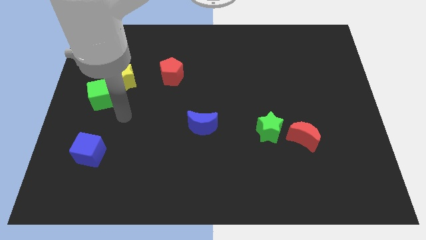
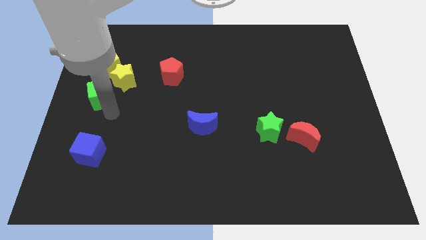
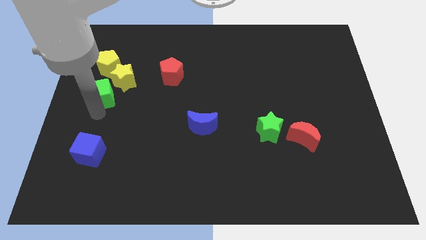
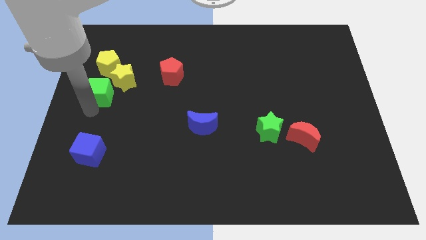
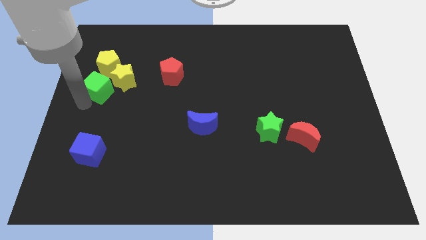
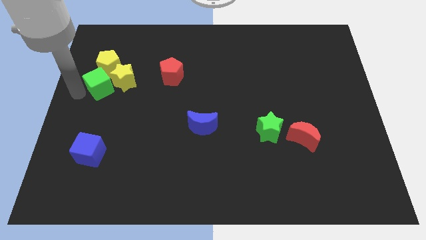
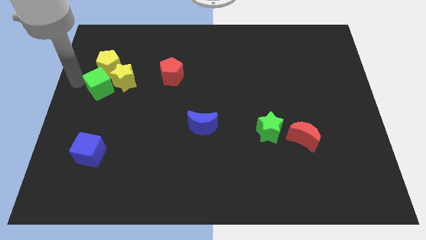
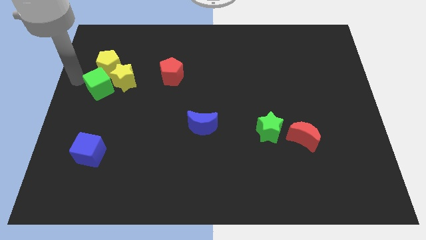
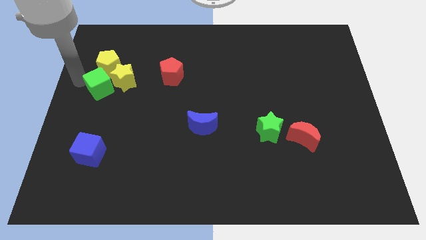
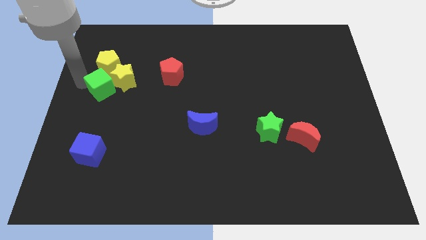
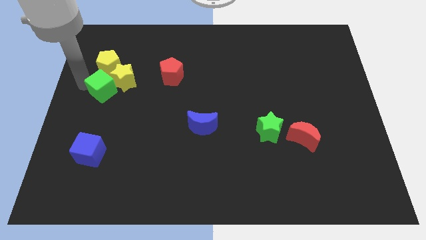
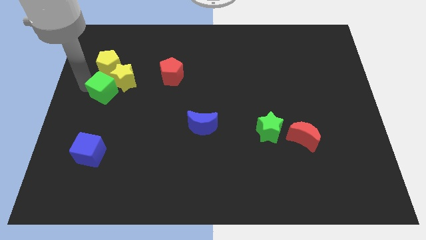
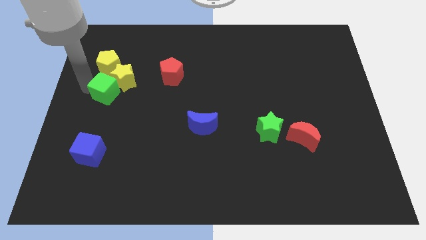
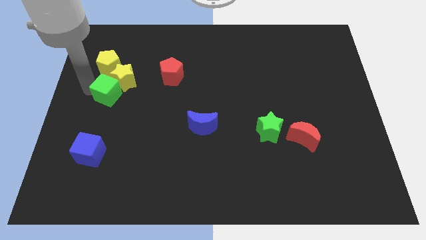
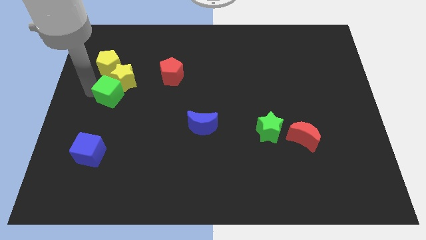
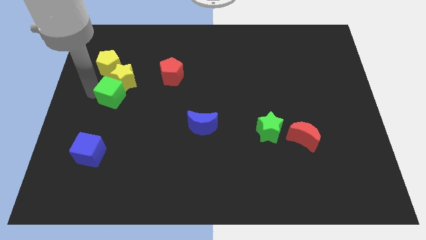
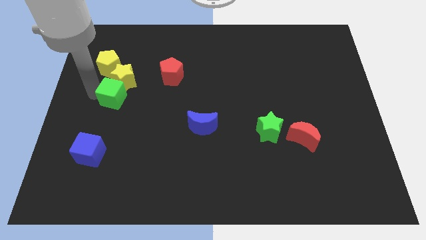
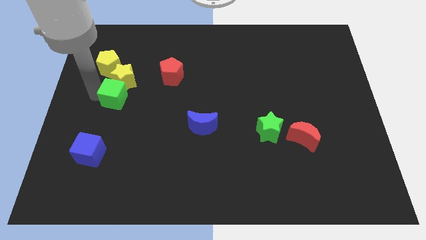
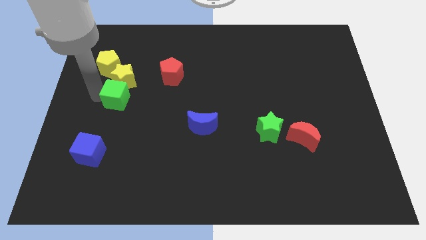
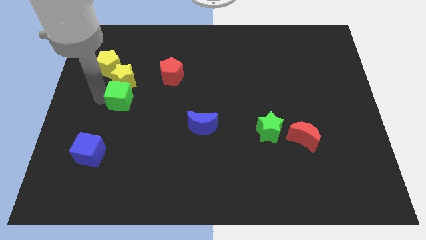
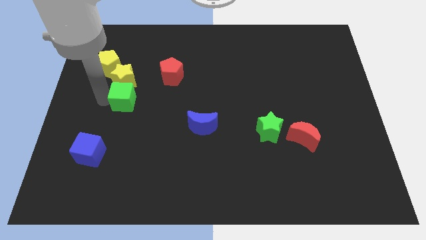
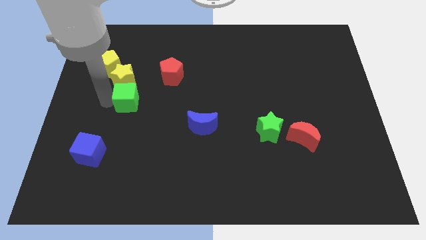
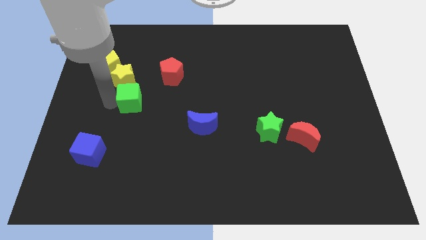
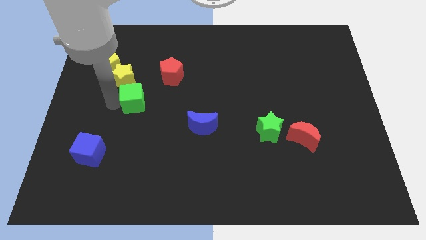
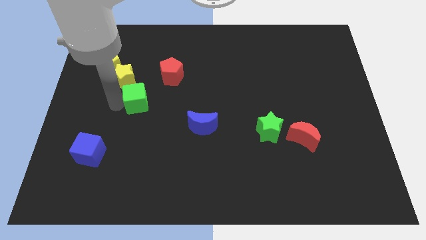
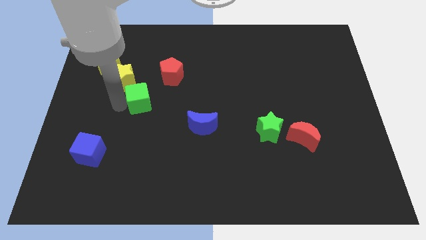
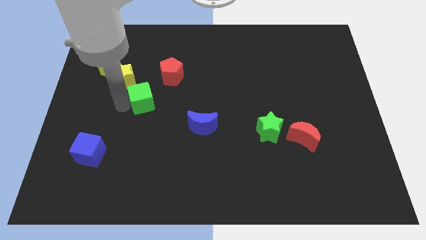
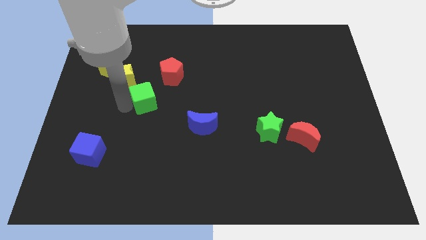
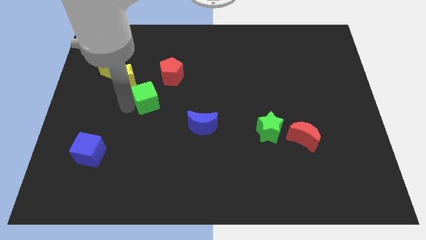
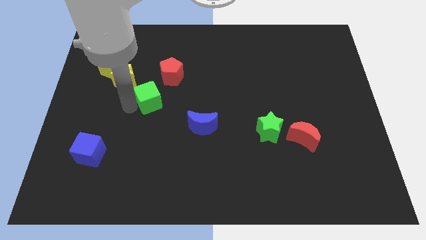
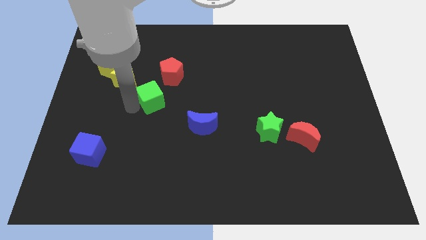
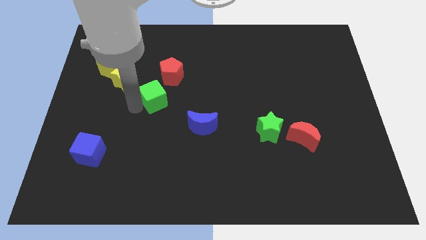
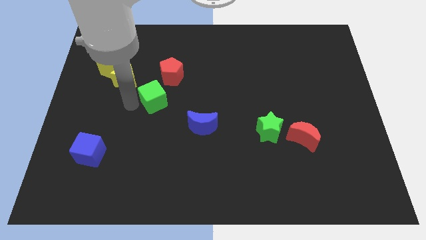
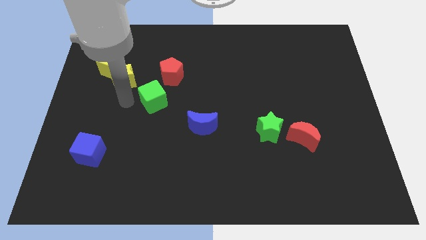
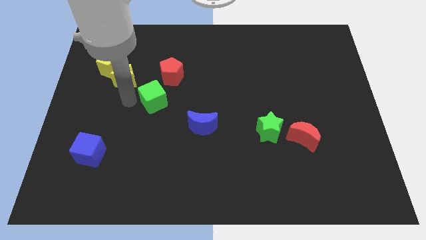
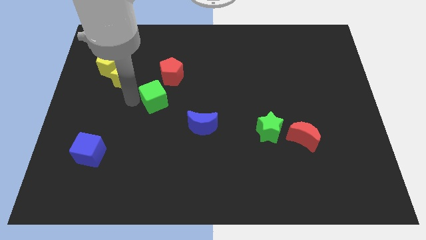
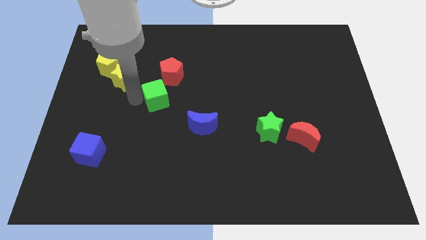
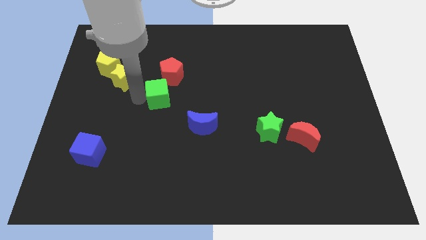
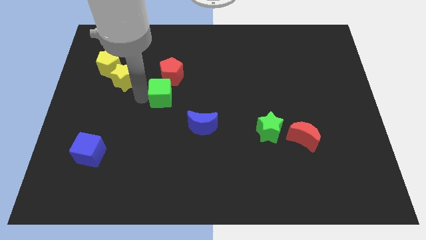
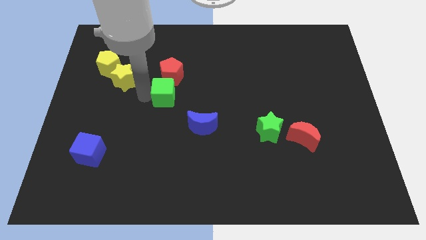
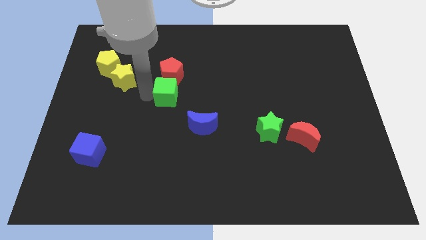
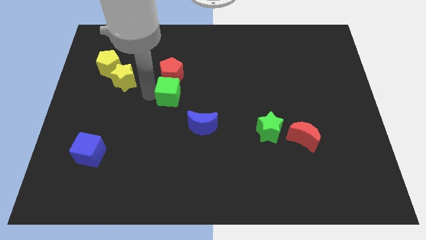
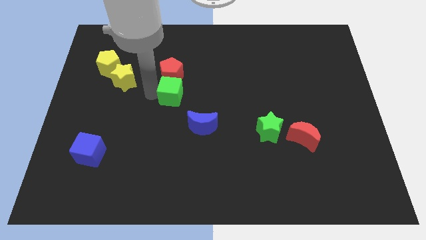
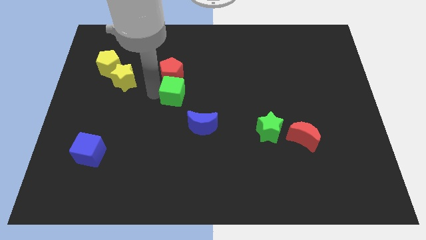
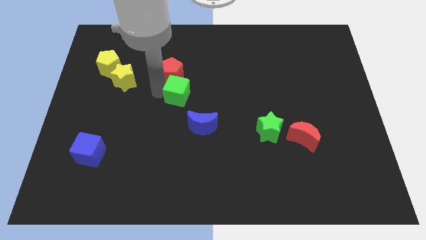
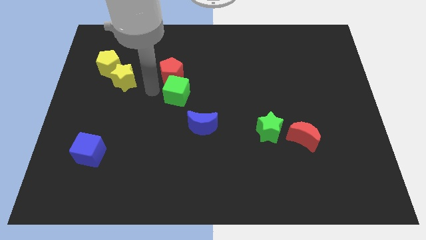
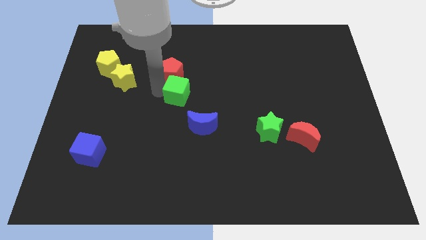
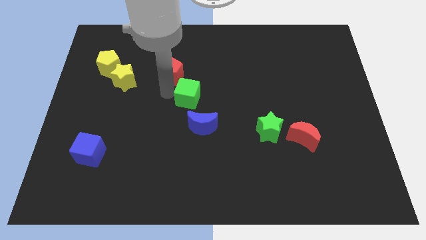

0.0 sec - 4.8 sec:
move the green cube to the right

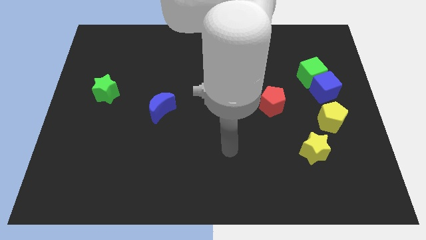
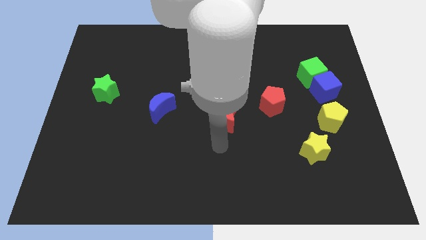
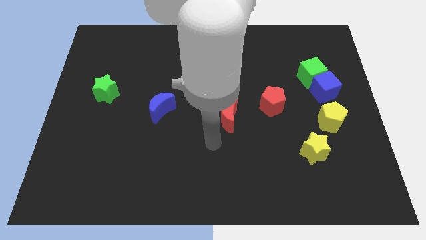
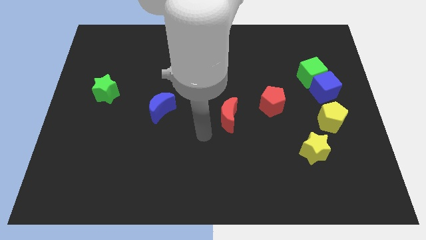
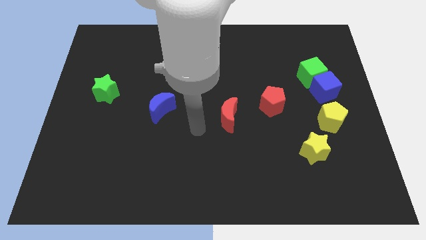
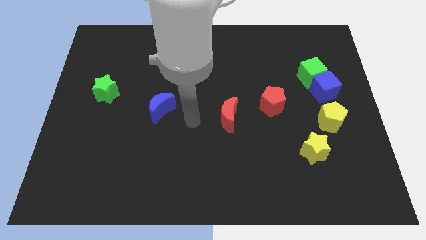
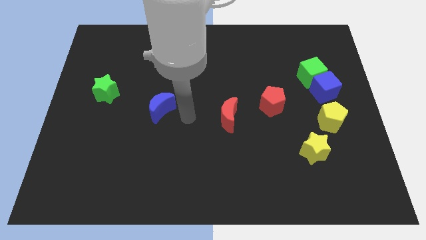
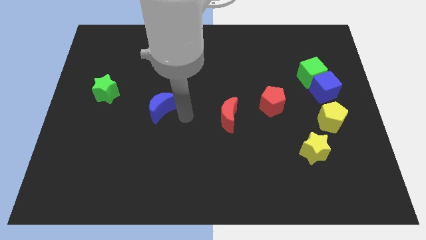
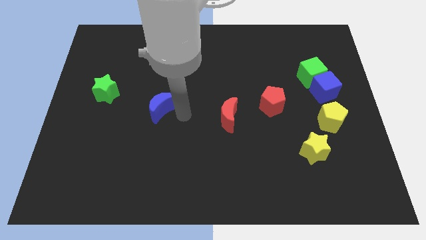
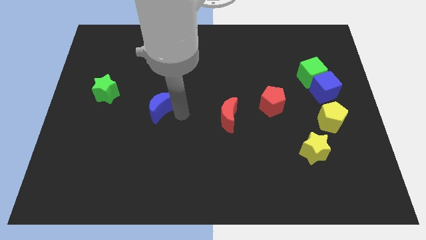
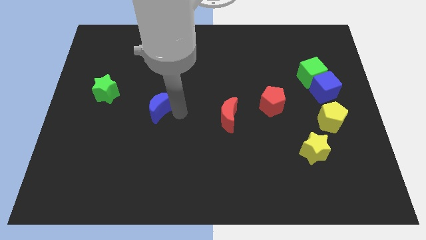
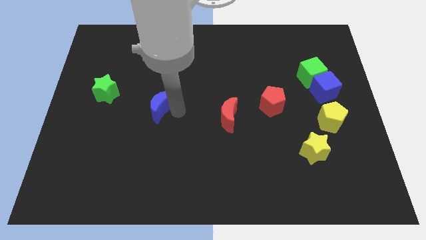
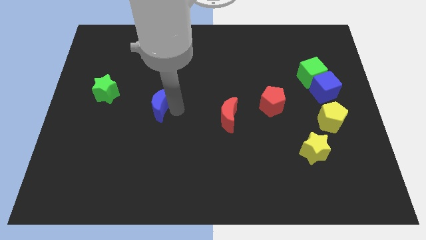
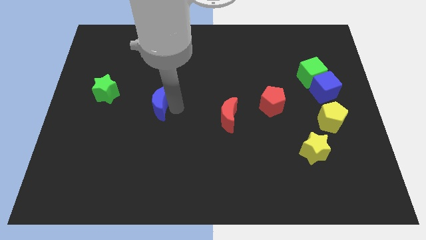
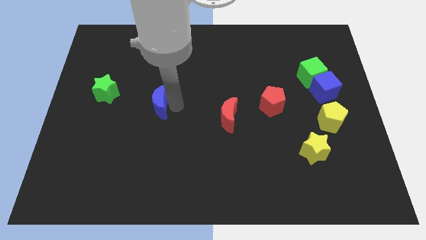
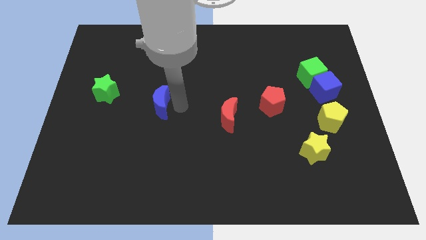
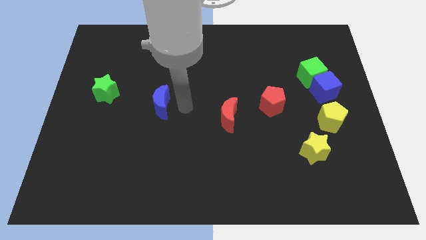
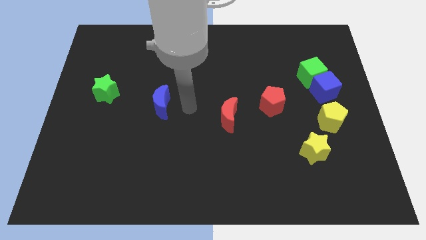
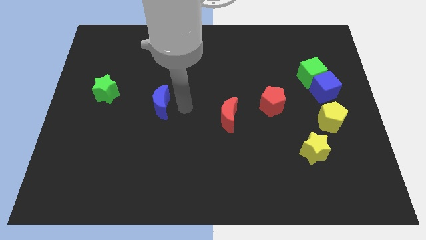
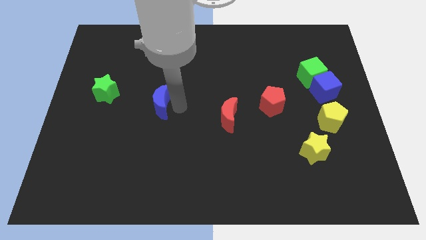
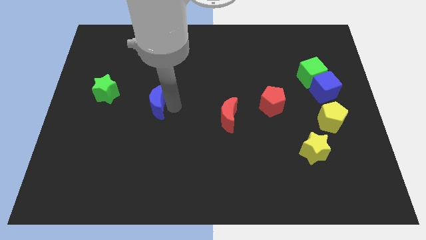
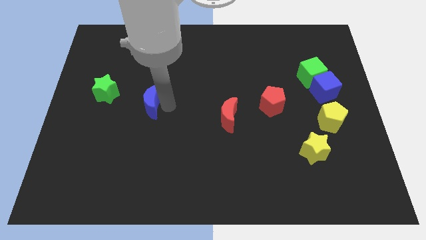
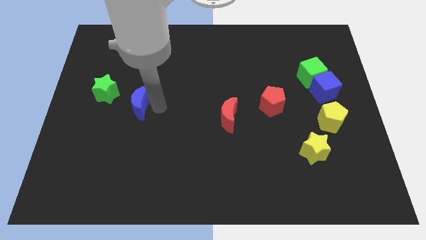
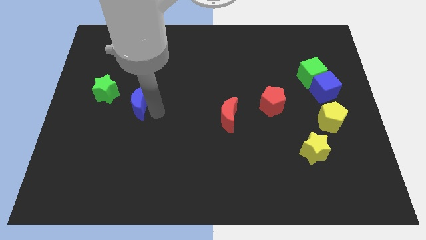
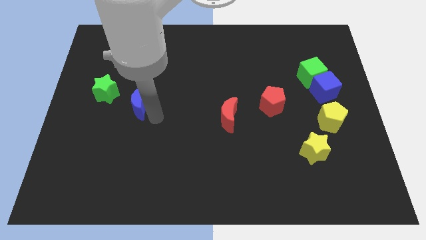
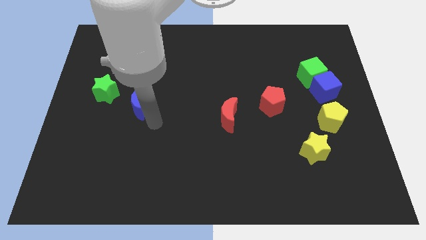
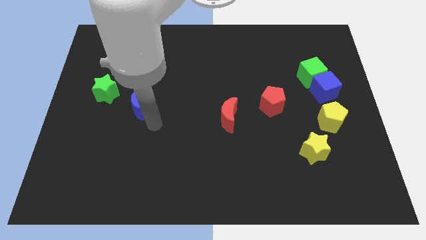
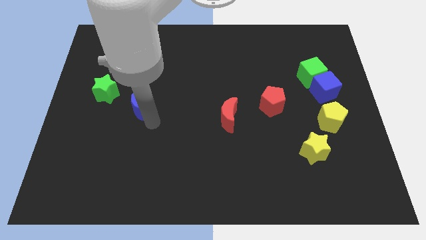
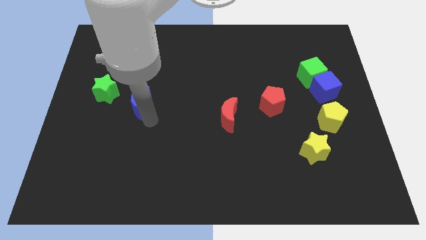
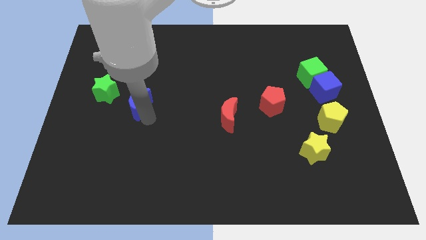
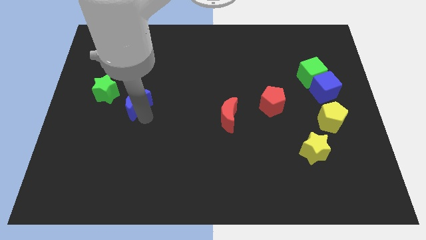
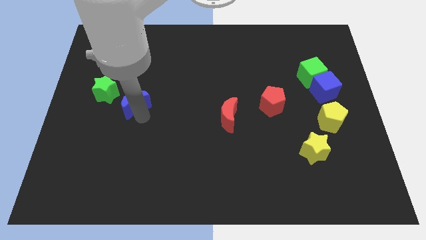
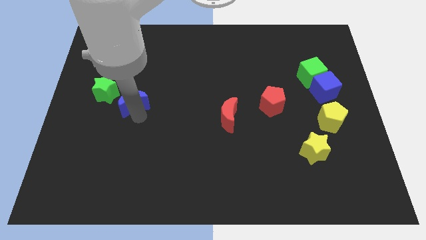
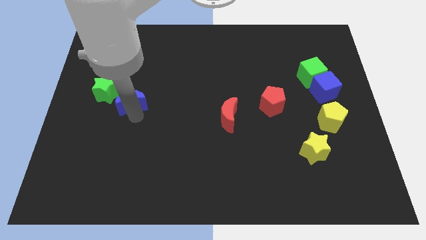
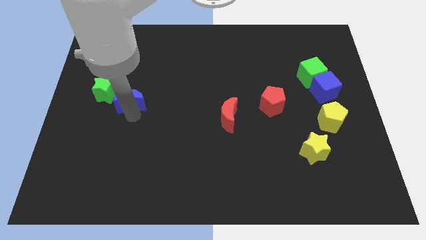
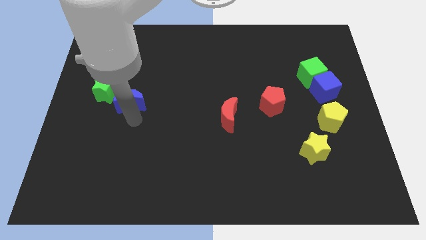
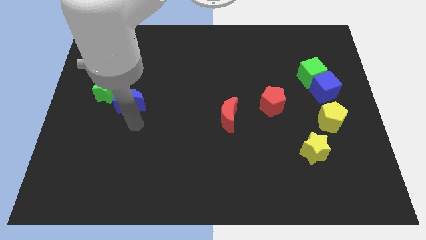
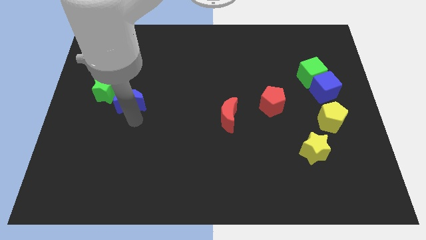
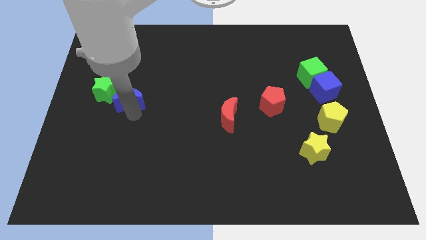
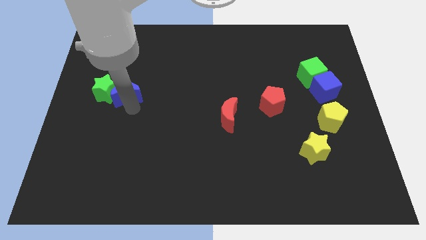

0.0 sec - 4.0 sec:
move the blue moon upwards and left diagonally slightly
